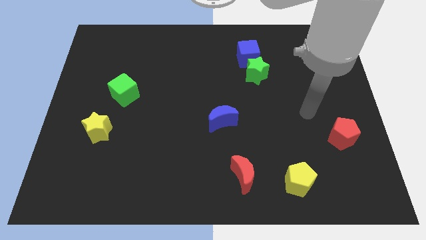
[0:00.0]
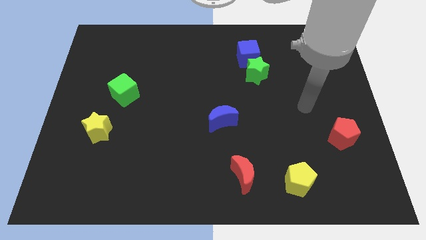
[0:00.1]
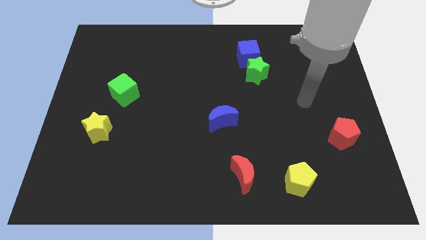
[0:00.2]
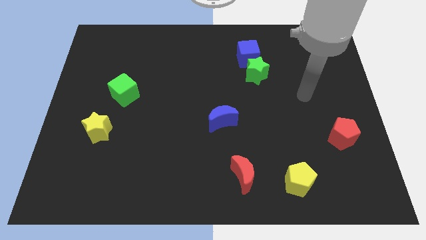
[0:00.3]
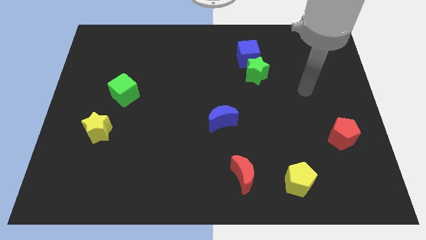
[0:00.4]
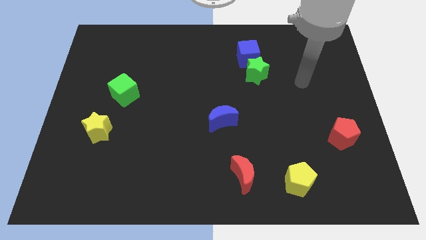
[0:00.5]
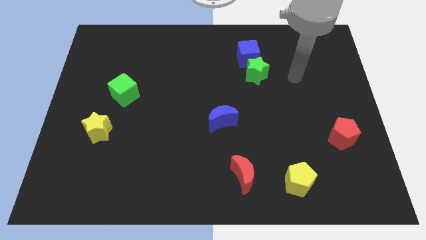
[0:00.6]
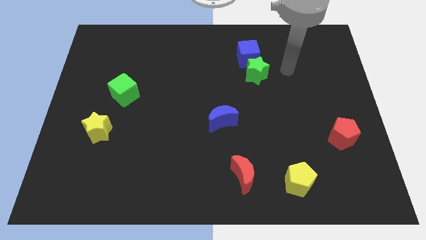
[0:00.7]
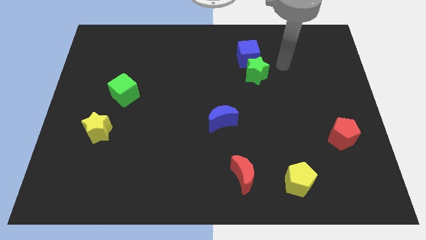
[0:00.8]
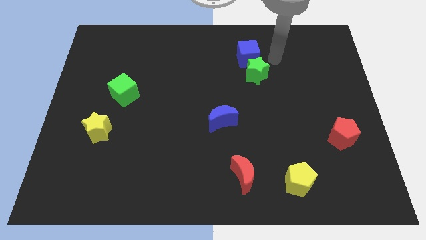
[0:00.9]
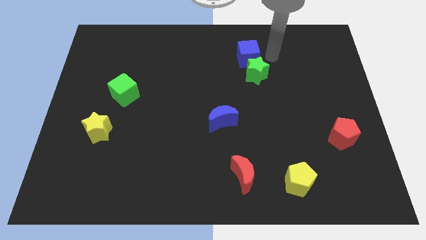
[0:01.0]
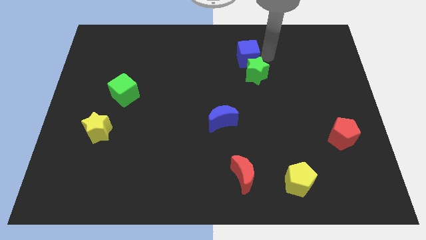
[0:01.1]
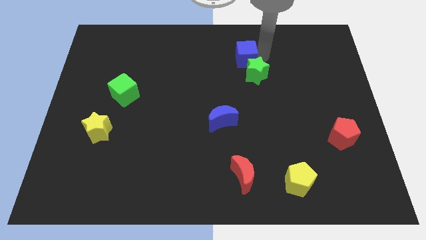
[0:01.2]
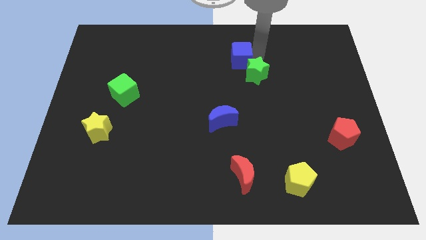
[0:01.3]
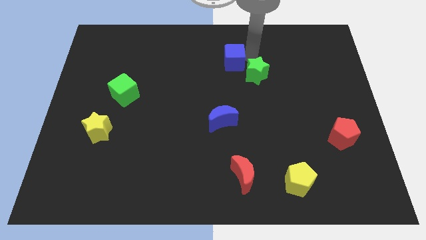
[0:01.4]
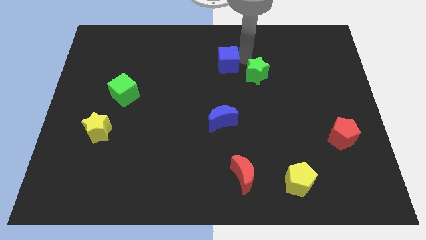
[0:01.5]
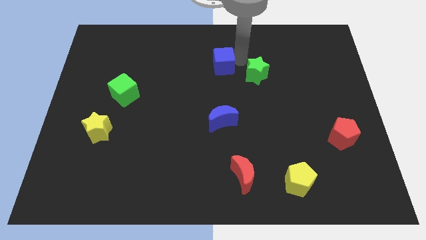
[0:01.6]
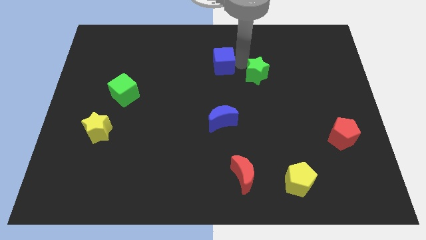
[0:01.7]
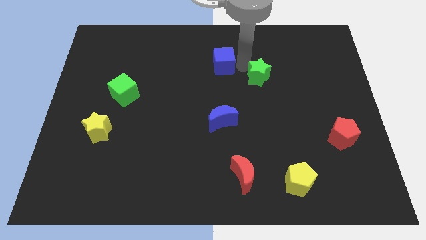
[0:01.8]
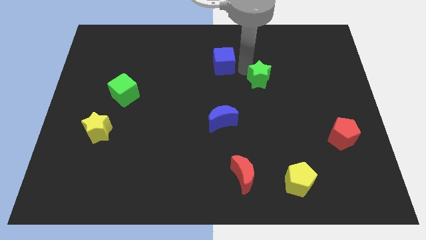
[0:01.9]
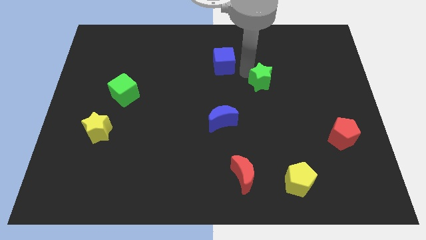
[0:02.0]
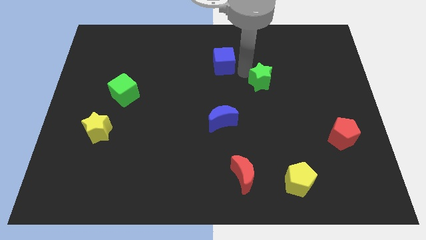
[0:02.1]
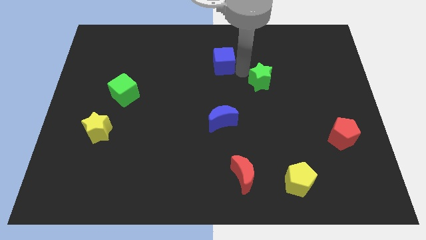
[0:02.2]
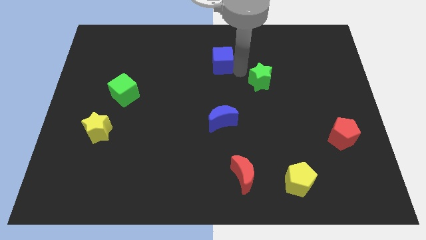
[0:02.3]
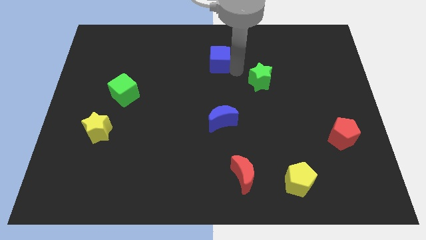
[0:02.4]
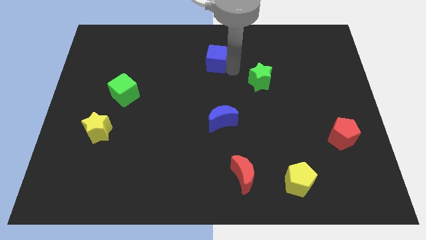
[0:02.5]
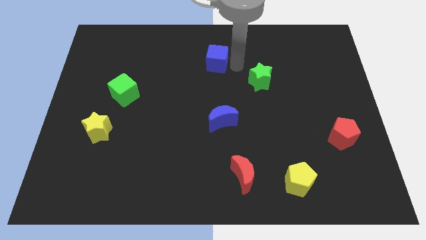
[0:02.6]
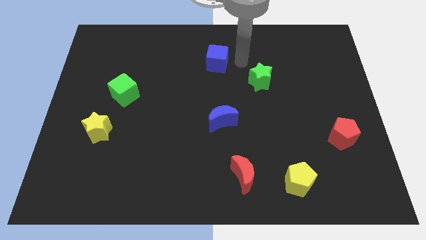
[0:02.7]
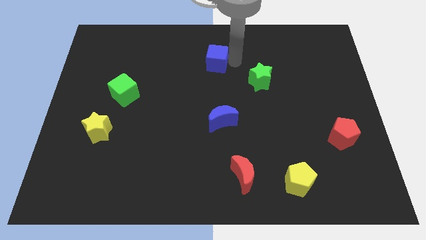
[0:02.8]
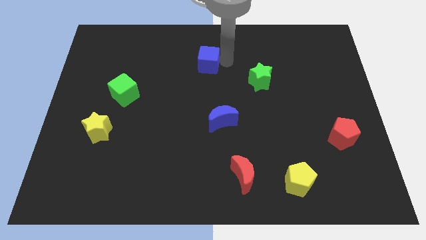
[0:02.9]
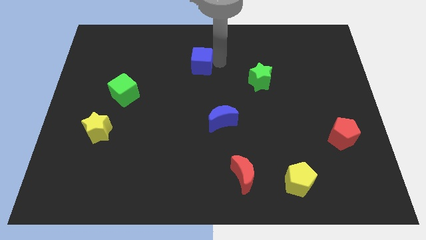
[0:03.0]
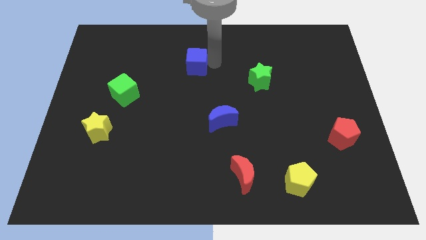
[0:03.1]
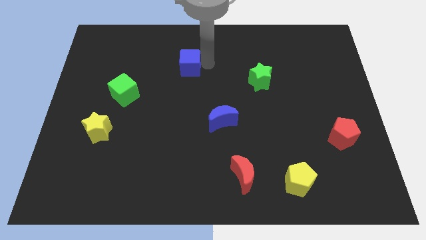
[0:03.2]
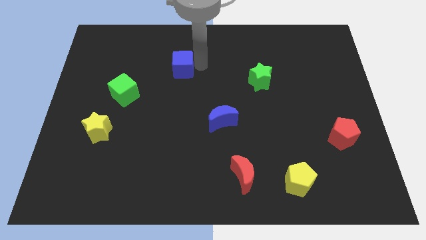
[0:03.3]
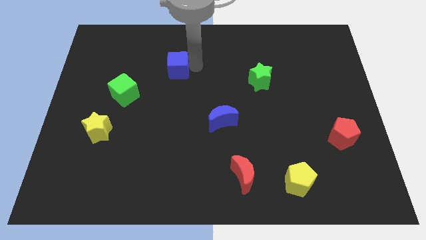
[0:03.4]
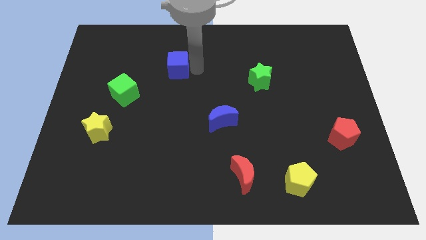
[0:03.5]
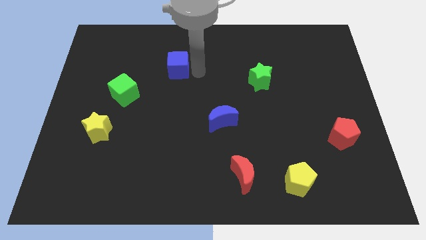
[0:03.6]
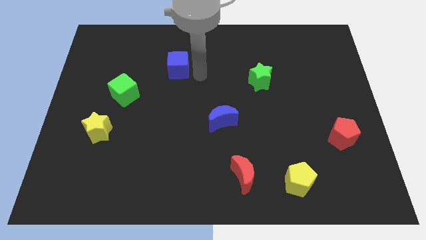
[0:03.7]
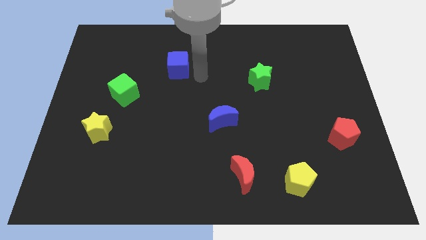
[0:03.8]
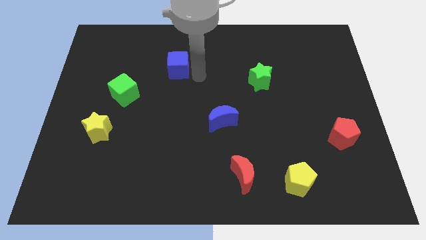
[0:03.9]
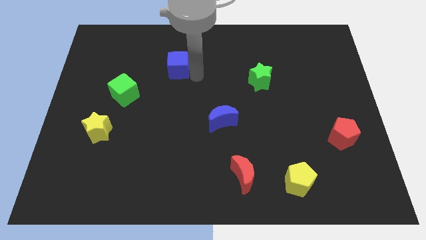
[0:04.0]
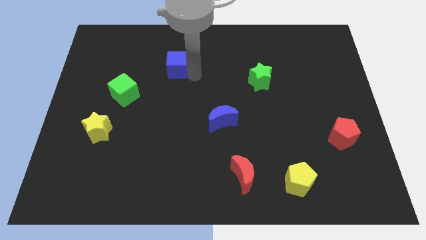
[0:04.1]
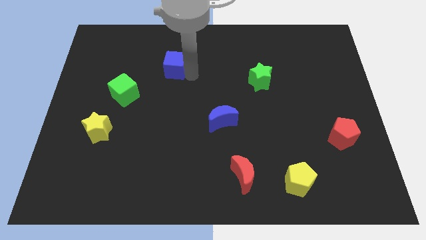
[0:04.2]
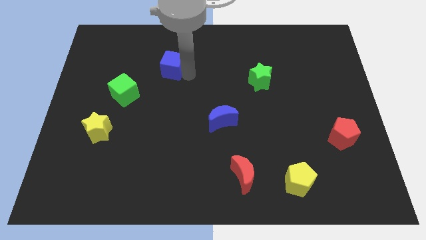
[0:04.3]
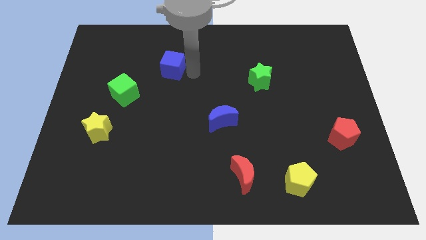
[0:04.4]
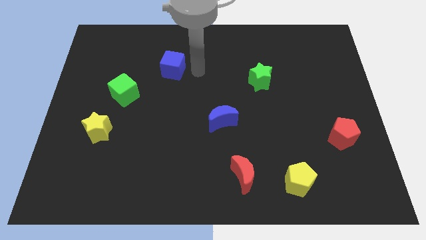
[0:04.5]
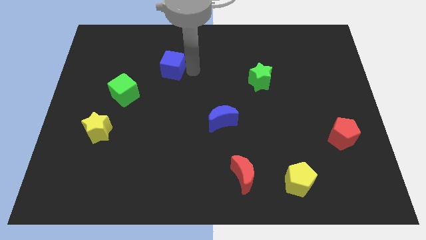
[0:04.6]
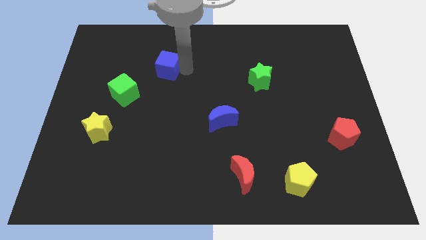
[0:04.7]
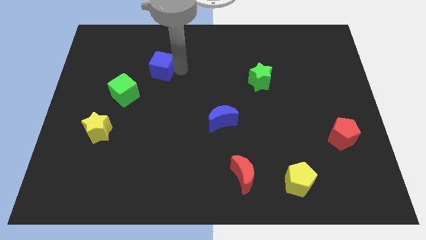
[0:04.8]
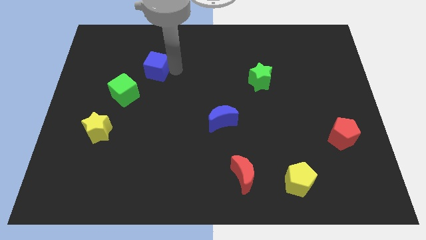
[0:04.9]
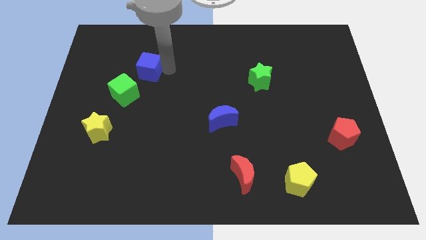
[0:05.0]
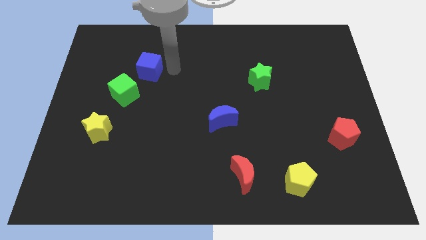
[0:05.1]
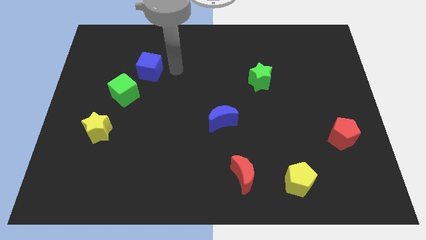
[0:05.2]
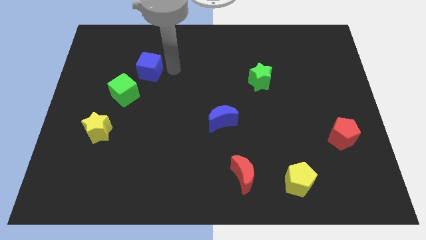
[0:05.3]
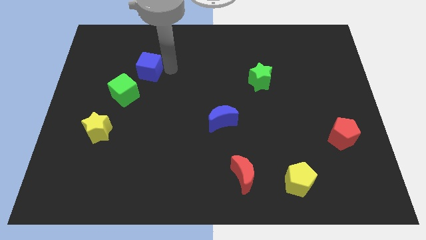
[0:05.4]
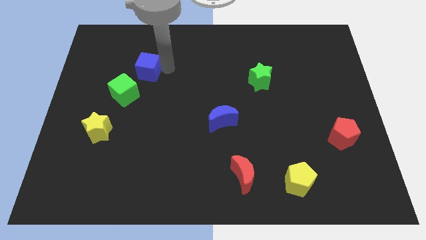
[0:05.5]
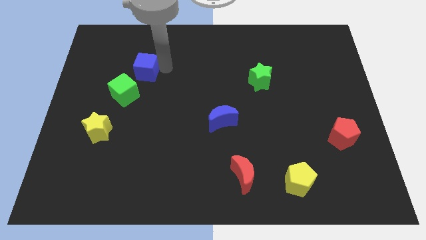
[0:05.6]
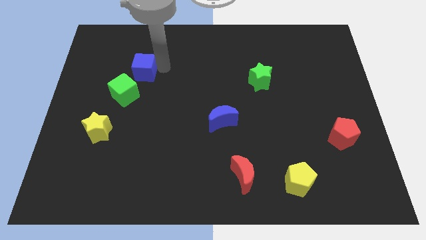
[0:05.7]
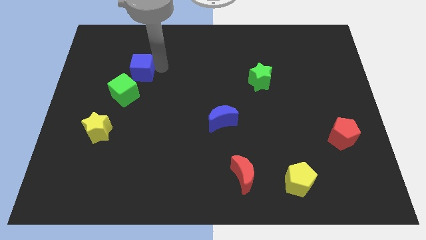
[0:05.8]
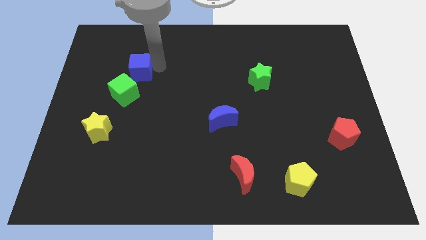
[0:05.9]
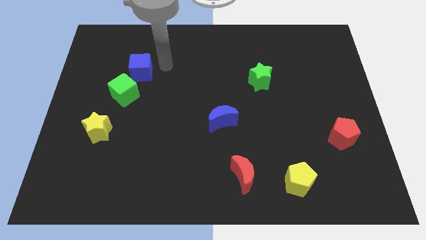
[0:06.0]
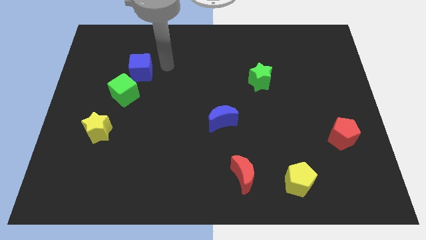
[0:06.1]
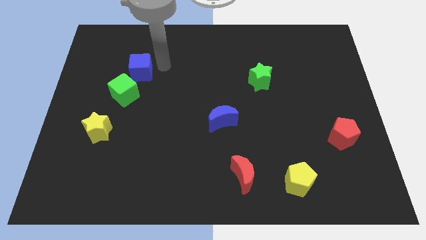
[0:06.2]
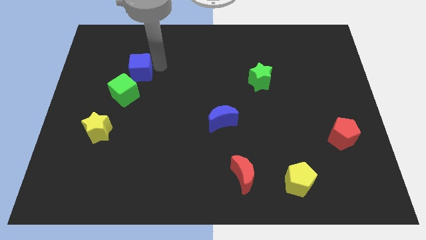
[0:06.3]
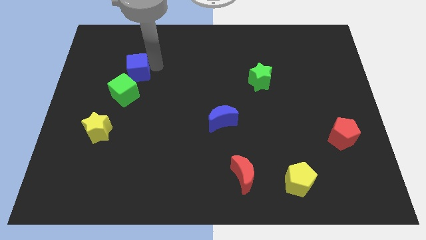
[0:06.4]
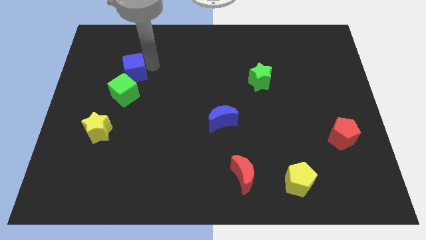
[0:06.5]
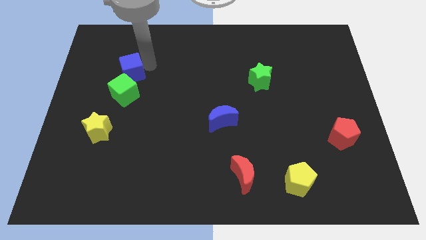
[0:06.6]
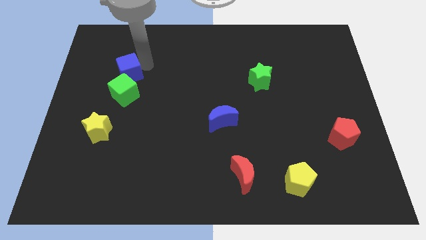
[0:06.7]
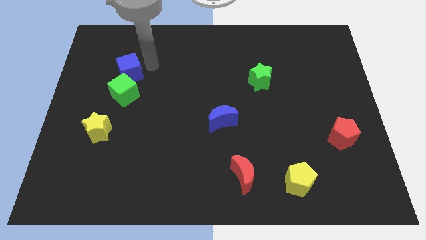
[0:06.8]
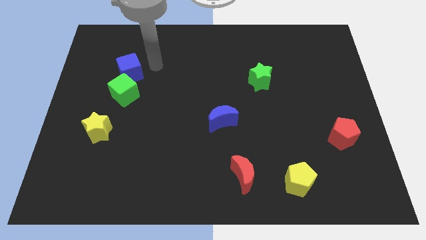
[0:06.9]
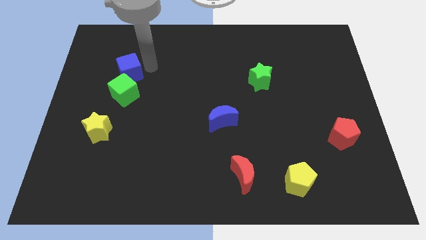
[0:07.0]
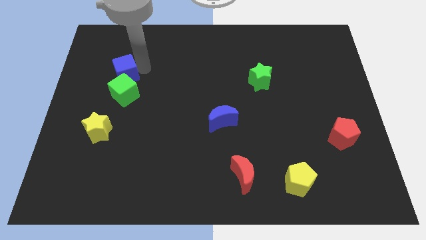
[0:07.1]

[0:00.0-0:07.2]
slide the blue cube to the top left side of the green cube
